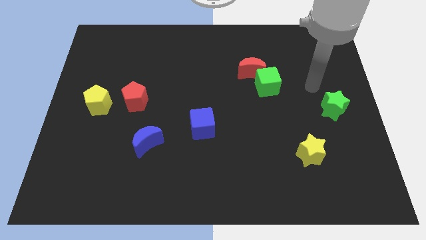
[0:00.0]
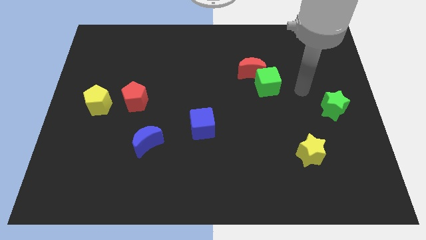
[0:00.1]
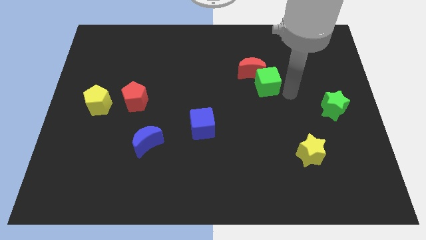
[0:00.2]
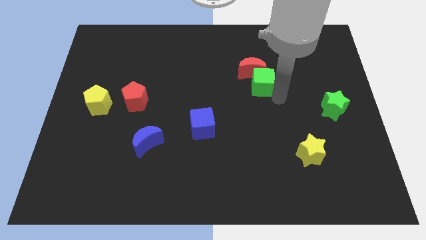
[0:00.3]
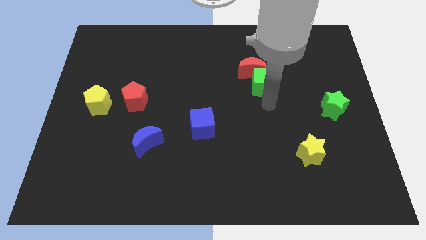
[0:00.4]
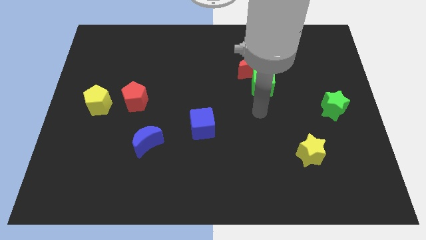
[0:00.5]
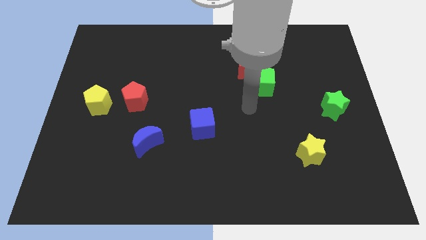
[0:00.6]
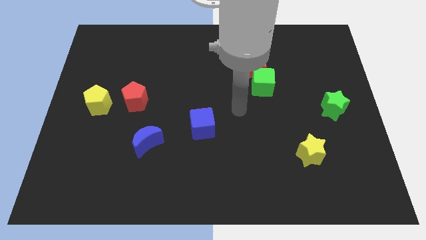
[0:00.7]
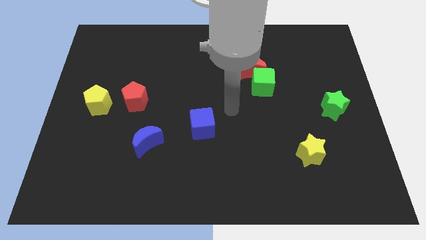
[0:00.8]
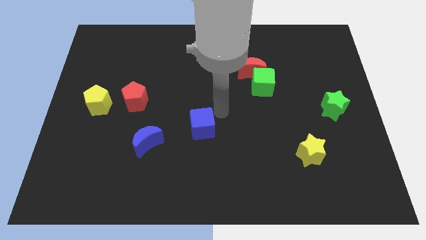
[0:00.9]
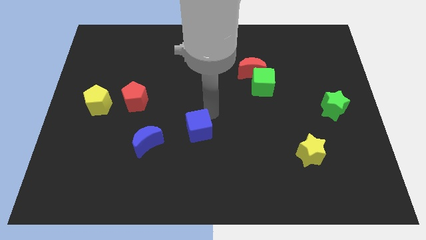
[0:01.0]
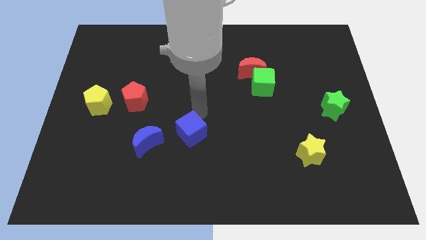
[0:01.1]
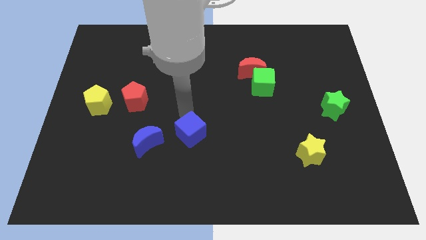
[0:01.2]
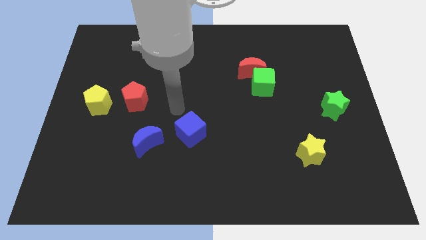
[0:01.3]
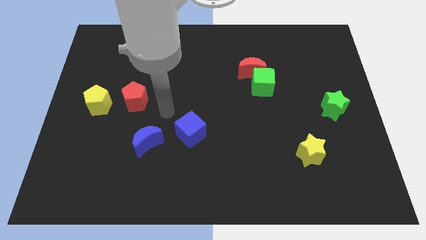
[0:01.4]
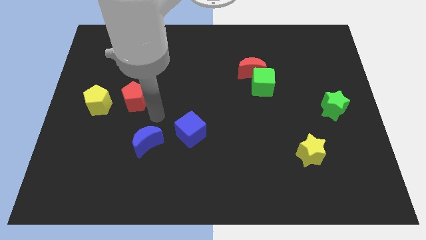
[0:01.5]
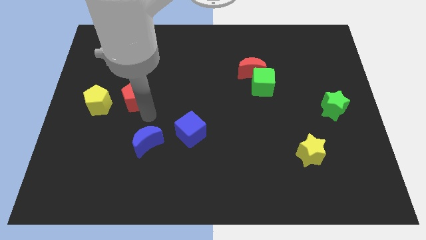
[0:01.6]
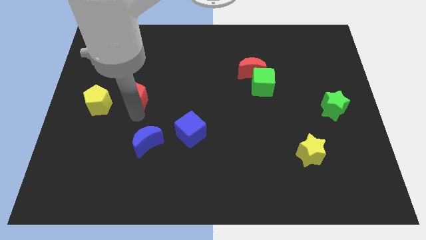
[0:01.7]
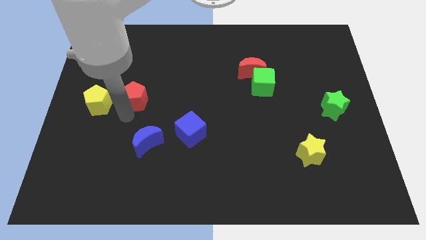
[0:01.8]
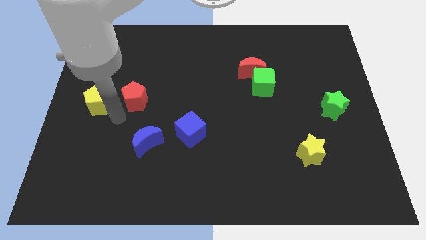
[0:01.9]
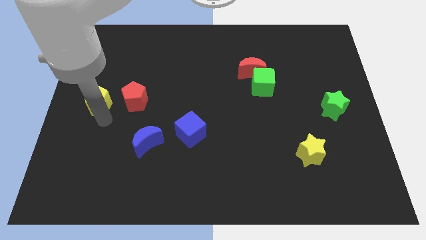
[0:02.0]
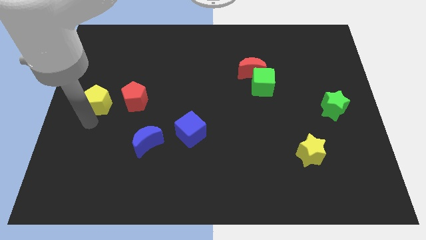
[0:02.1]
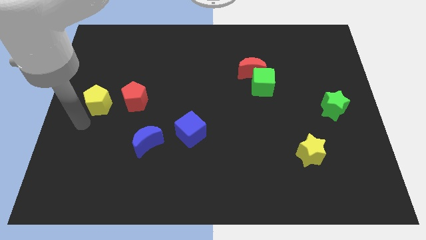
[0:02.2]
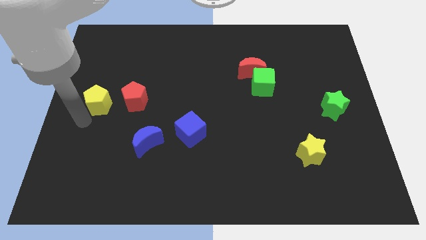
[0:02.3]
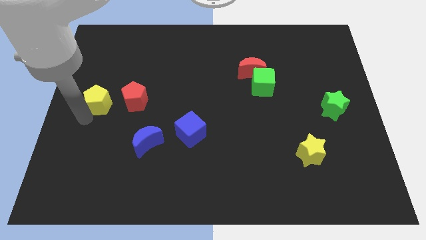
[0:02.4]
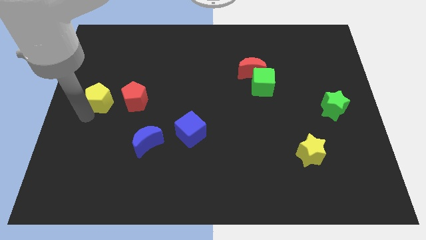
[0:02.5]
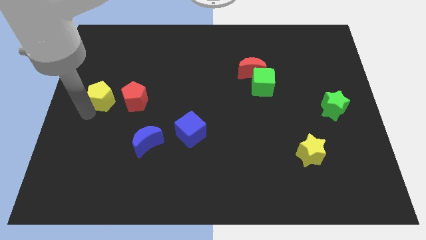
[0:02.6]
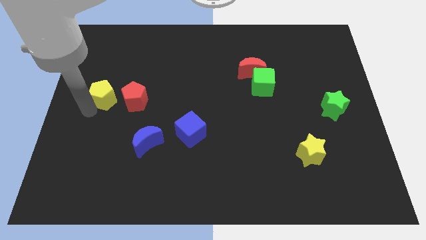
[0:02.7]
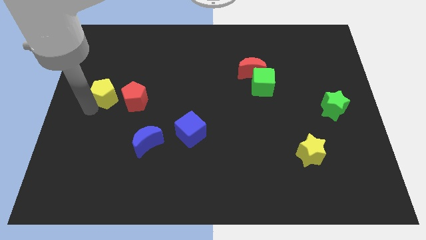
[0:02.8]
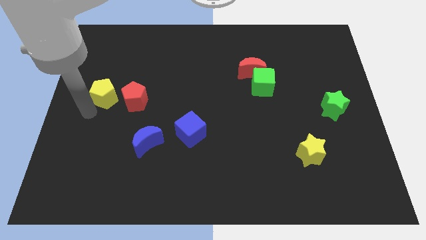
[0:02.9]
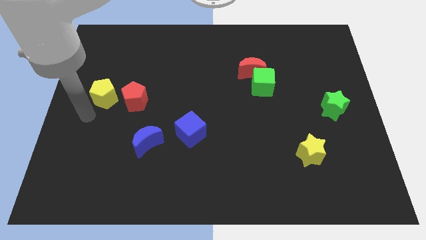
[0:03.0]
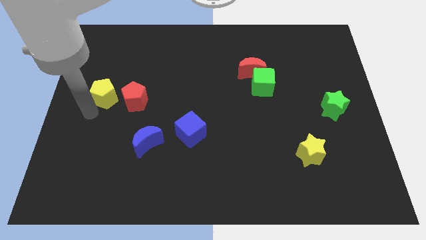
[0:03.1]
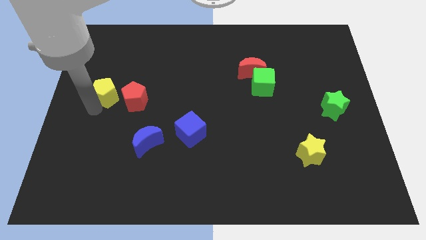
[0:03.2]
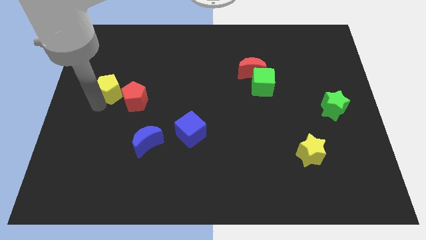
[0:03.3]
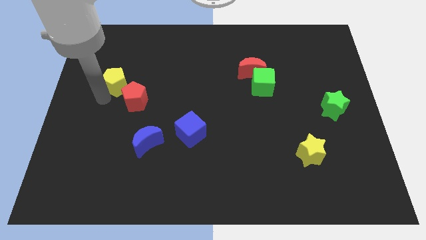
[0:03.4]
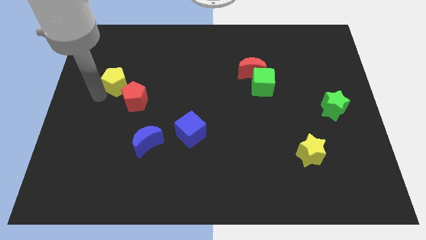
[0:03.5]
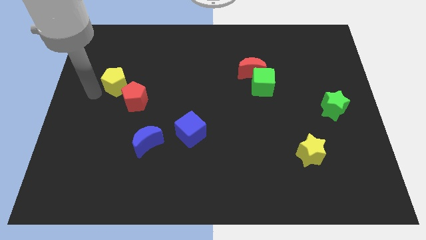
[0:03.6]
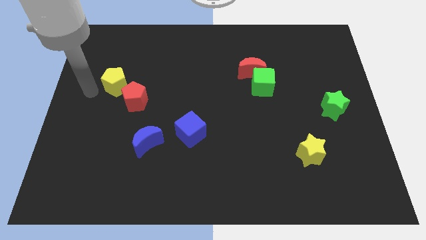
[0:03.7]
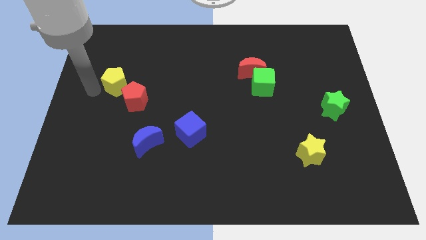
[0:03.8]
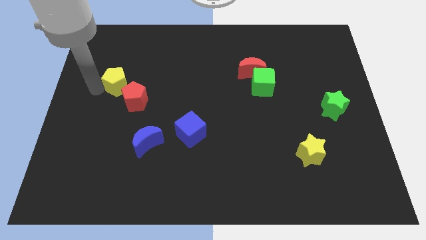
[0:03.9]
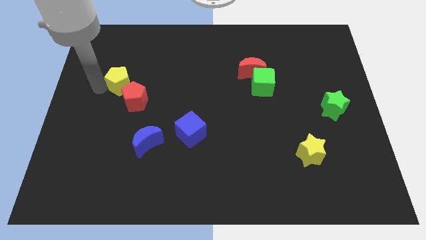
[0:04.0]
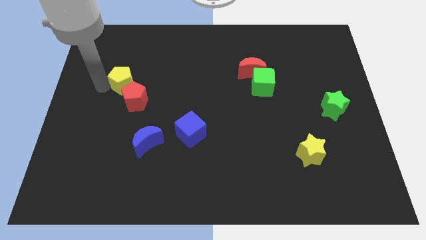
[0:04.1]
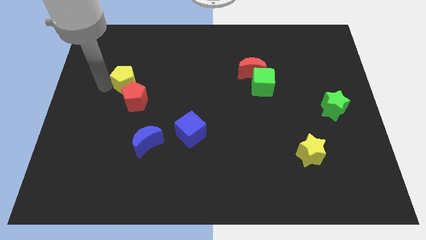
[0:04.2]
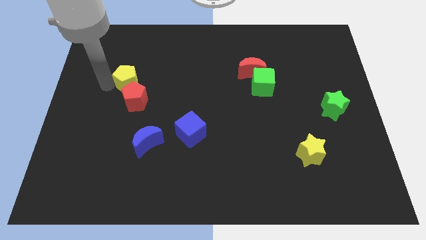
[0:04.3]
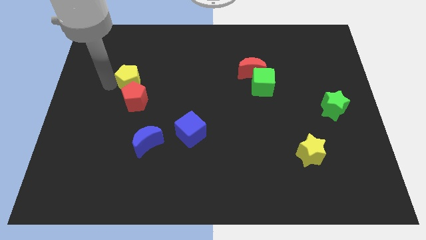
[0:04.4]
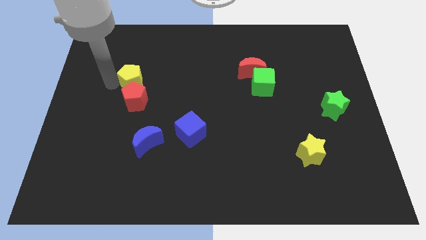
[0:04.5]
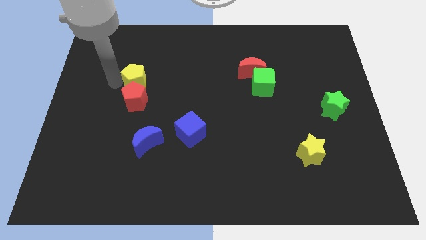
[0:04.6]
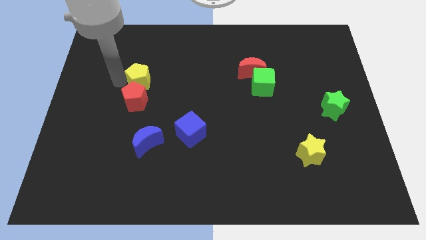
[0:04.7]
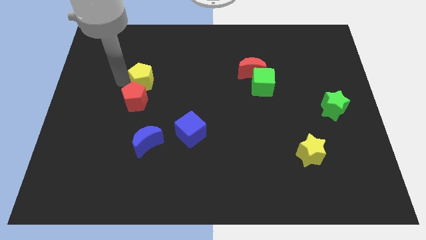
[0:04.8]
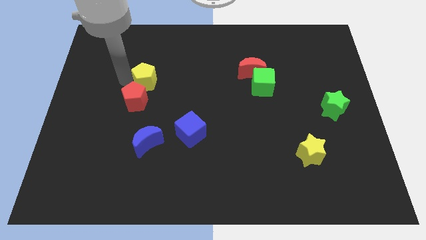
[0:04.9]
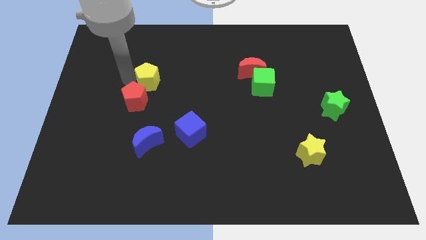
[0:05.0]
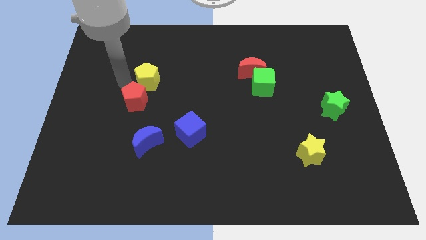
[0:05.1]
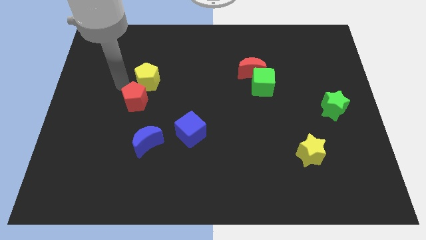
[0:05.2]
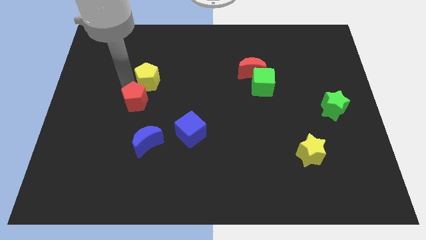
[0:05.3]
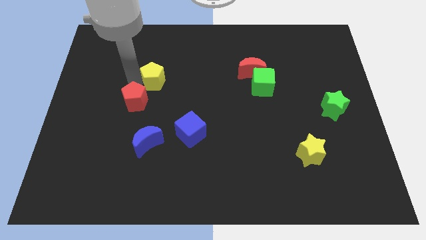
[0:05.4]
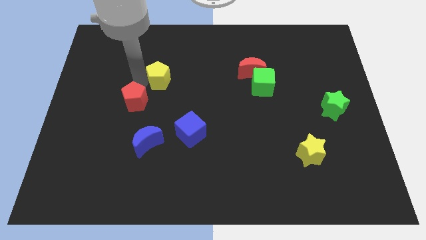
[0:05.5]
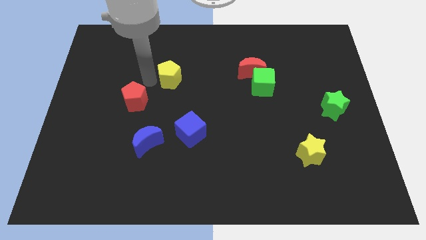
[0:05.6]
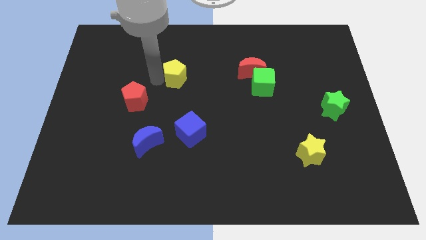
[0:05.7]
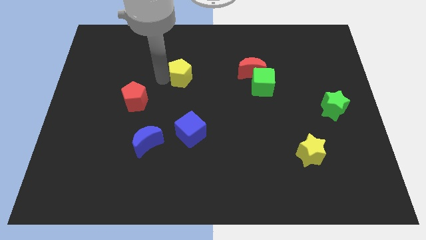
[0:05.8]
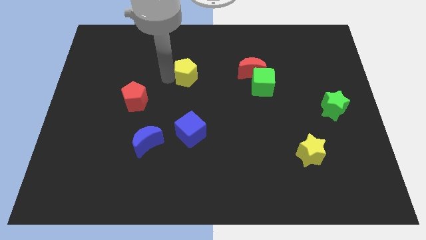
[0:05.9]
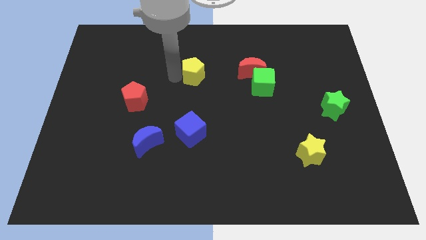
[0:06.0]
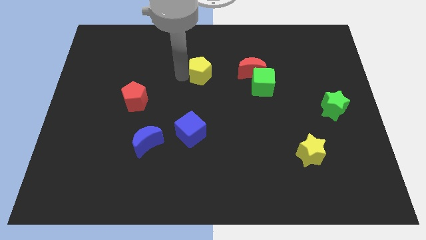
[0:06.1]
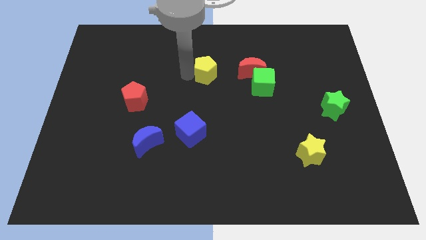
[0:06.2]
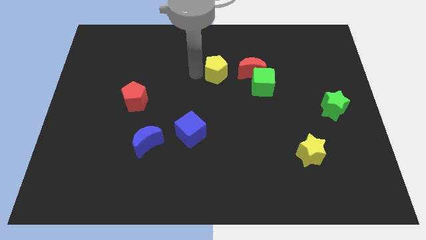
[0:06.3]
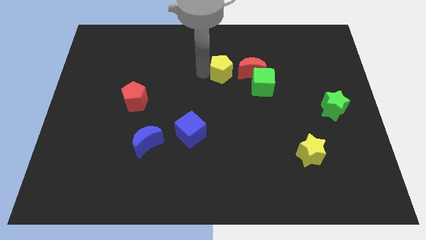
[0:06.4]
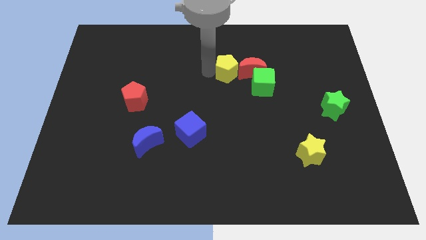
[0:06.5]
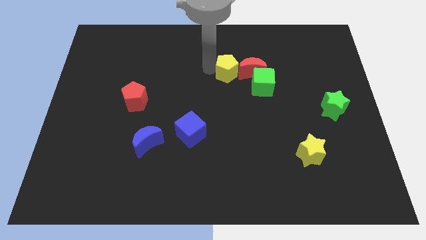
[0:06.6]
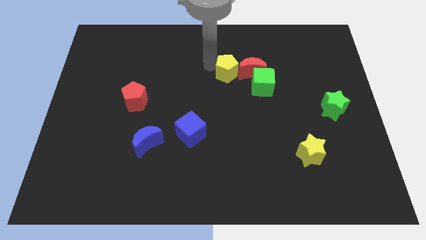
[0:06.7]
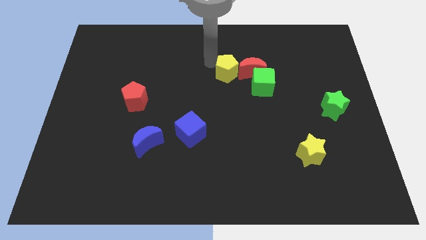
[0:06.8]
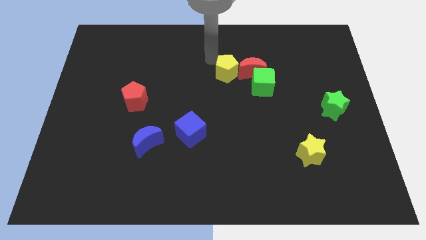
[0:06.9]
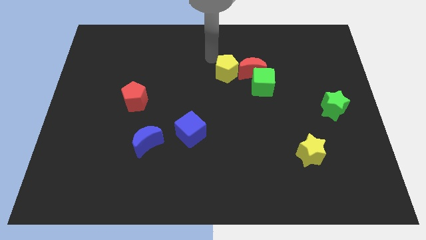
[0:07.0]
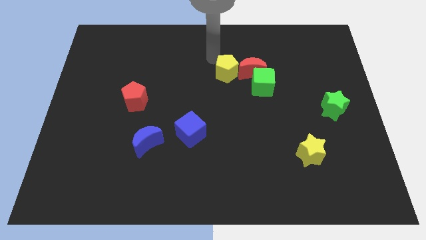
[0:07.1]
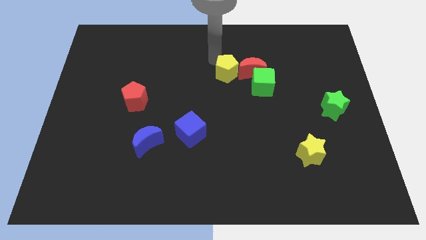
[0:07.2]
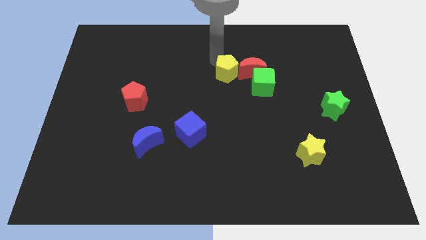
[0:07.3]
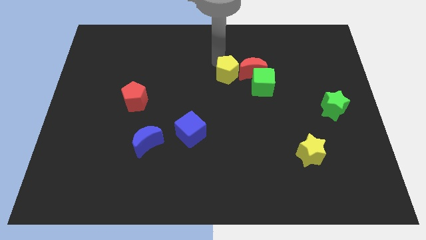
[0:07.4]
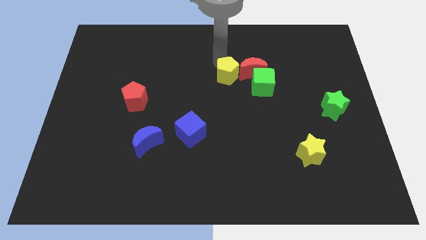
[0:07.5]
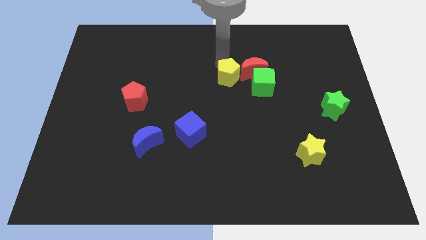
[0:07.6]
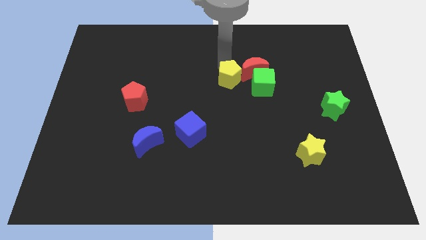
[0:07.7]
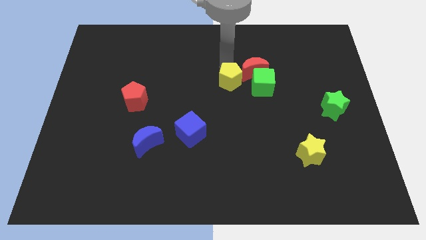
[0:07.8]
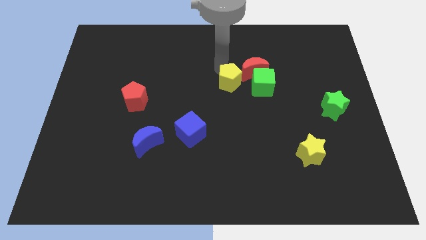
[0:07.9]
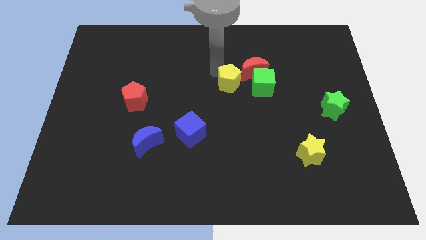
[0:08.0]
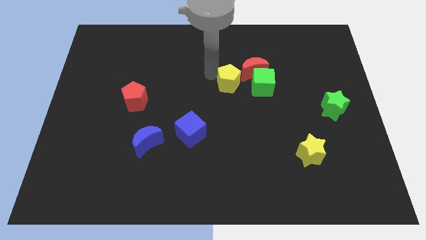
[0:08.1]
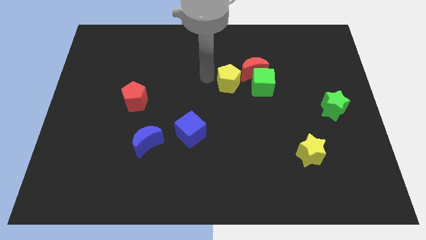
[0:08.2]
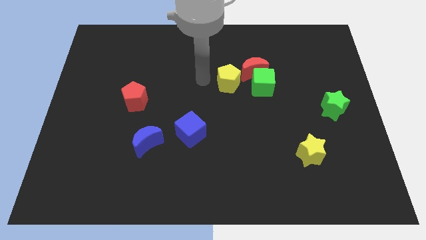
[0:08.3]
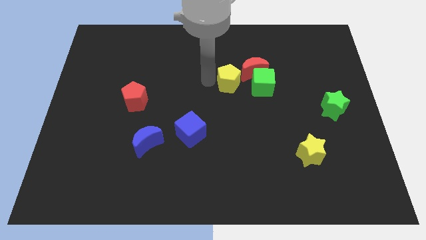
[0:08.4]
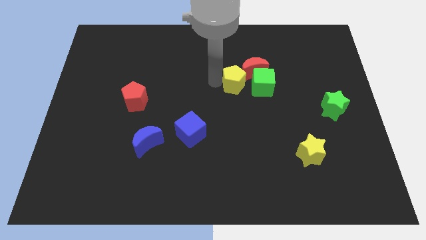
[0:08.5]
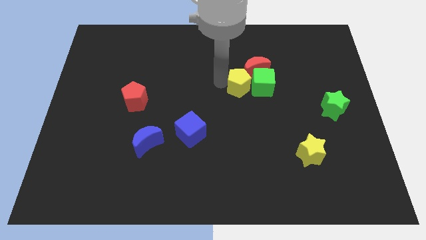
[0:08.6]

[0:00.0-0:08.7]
move the yellow pentagon towards the green cube
